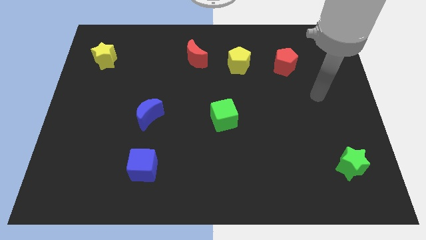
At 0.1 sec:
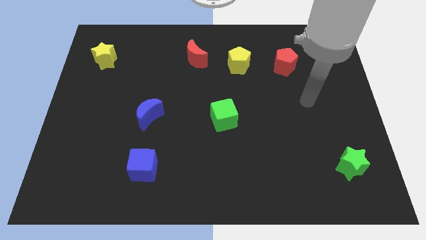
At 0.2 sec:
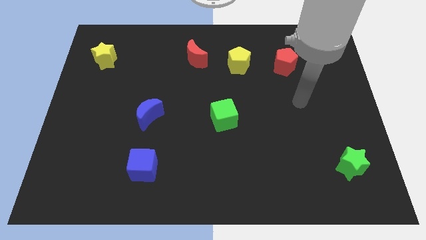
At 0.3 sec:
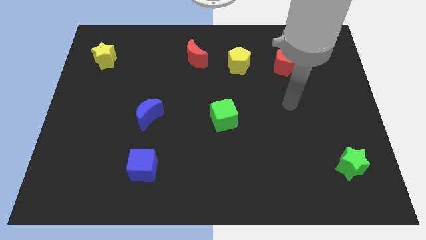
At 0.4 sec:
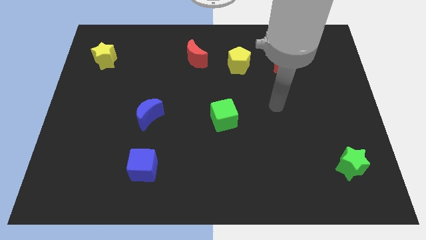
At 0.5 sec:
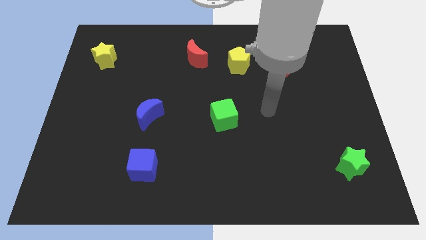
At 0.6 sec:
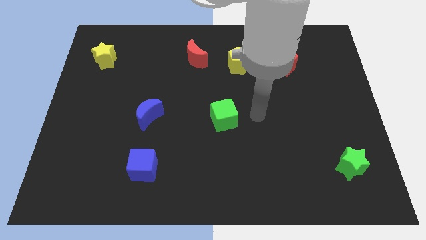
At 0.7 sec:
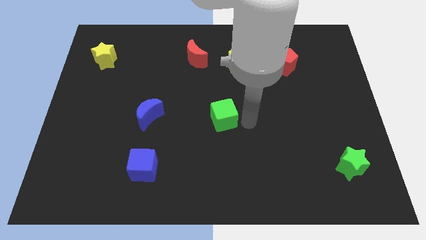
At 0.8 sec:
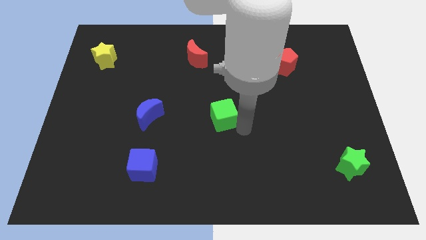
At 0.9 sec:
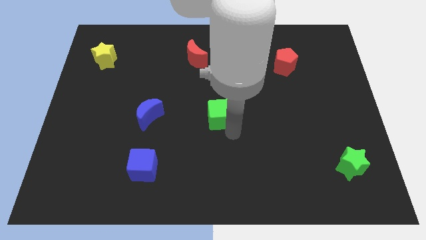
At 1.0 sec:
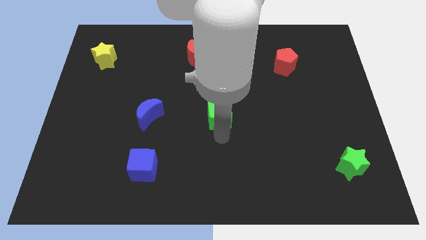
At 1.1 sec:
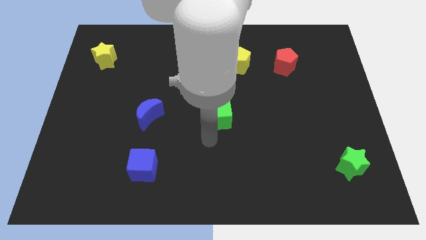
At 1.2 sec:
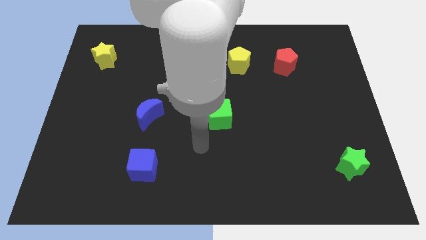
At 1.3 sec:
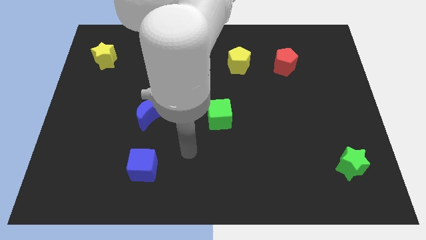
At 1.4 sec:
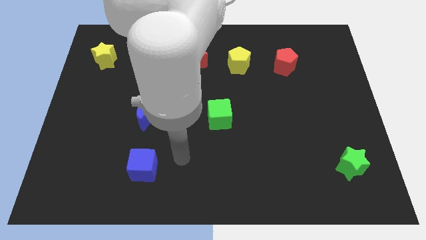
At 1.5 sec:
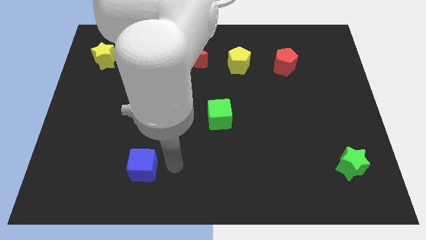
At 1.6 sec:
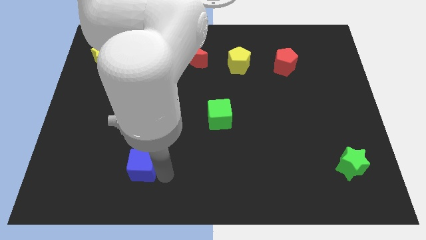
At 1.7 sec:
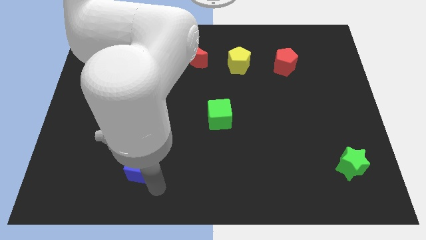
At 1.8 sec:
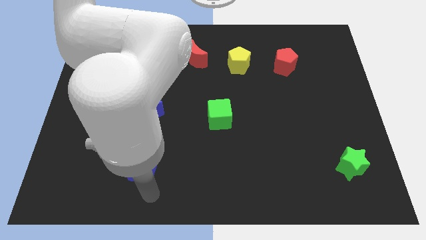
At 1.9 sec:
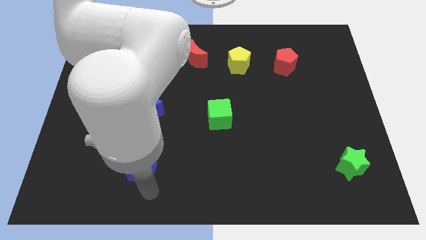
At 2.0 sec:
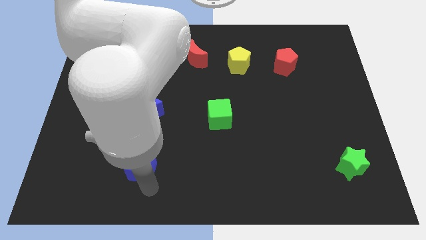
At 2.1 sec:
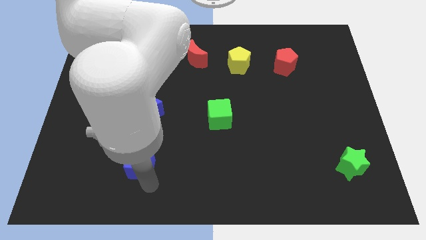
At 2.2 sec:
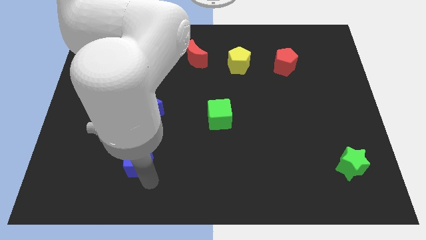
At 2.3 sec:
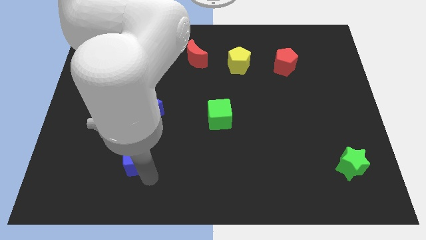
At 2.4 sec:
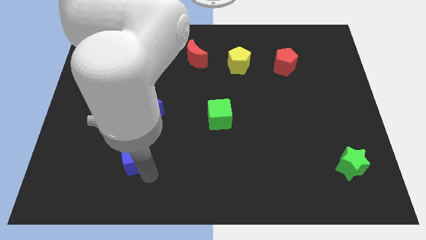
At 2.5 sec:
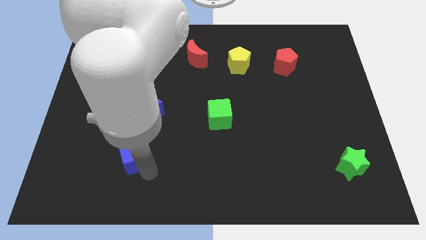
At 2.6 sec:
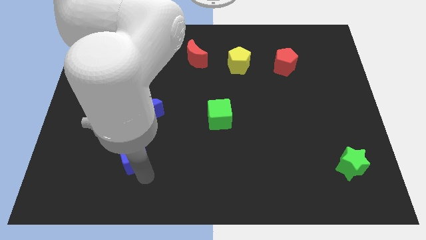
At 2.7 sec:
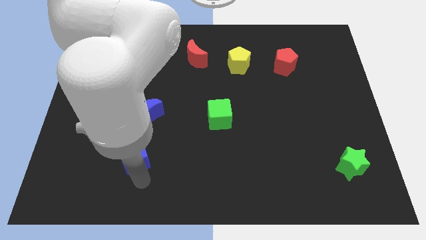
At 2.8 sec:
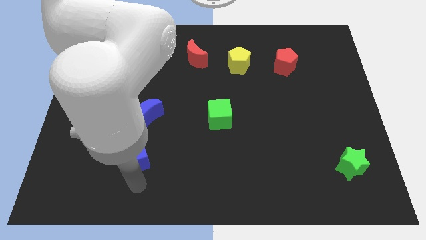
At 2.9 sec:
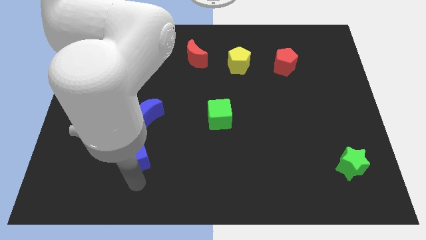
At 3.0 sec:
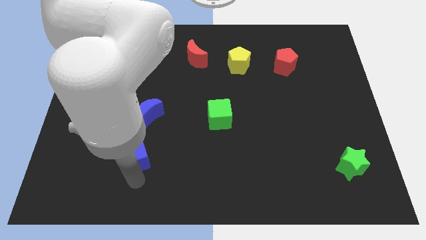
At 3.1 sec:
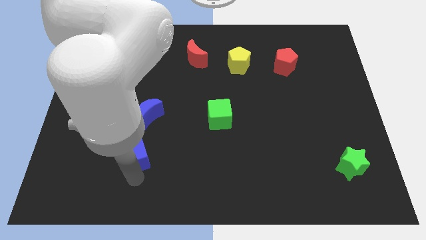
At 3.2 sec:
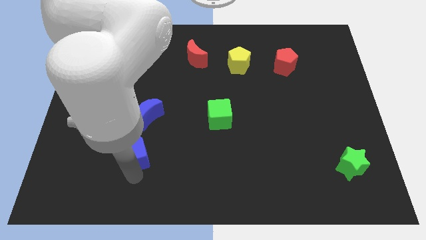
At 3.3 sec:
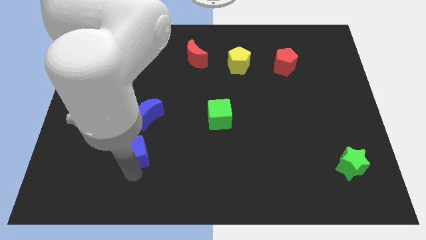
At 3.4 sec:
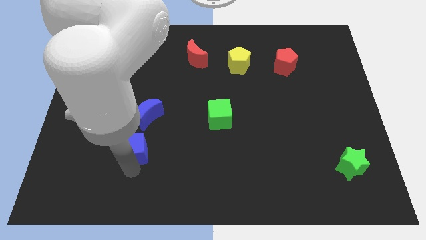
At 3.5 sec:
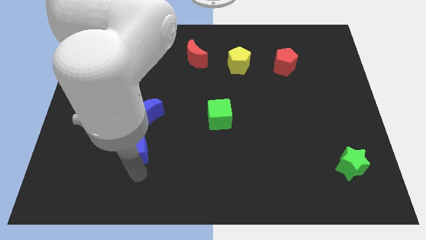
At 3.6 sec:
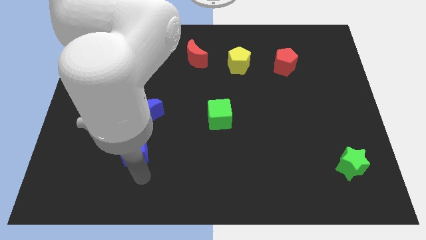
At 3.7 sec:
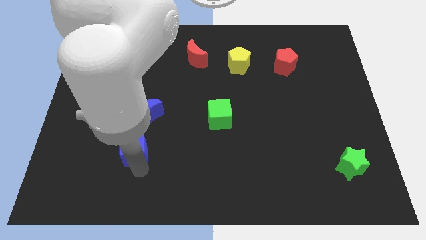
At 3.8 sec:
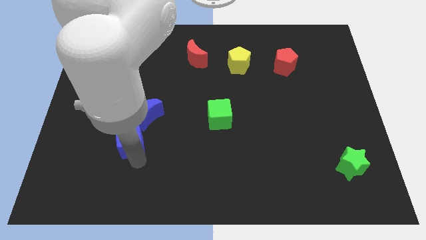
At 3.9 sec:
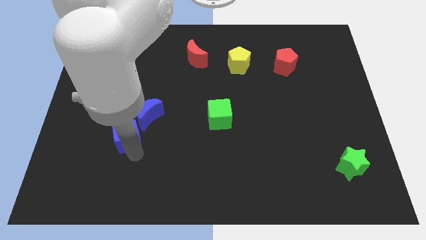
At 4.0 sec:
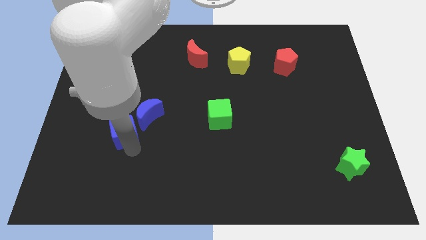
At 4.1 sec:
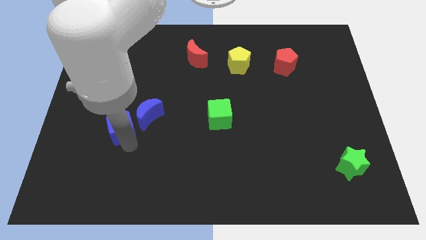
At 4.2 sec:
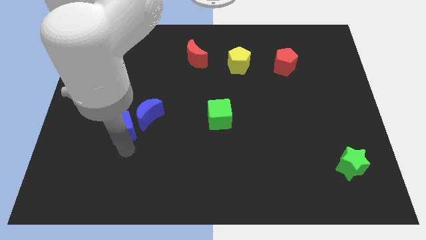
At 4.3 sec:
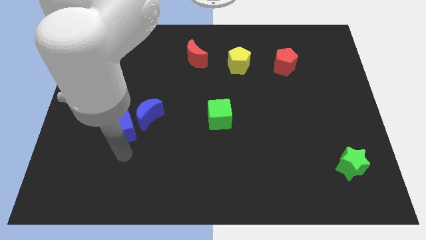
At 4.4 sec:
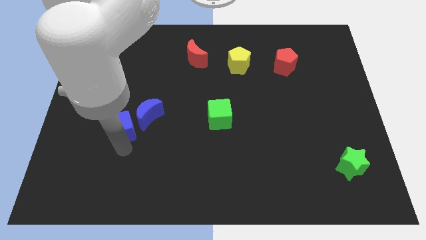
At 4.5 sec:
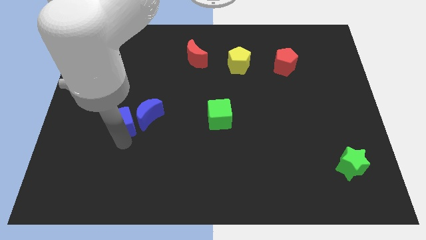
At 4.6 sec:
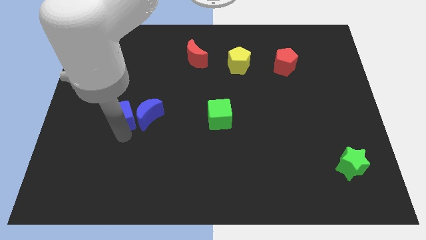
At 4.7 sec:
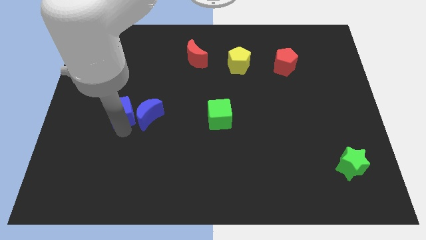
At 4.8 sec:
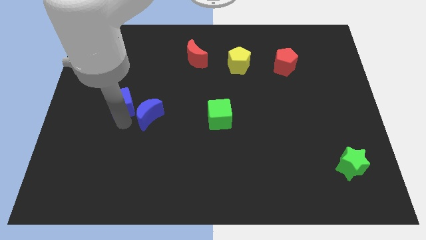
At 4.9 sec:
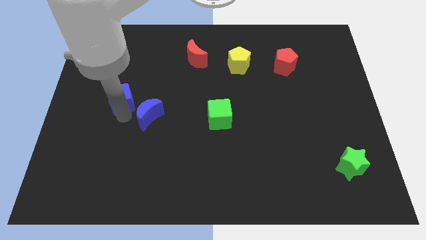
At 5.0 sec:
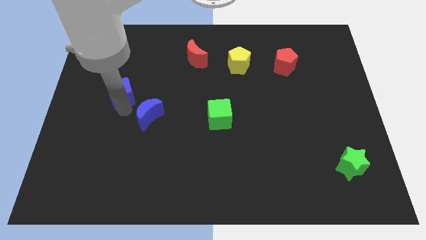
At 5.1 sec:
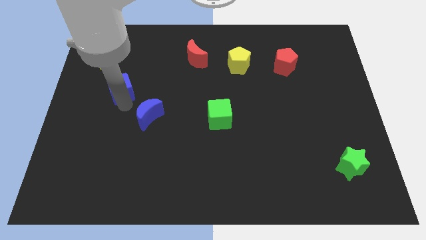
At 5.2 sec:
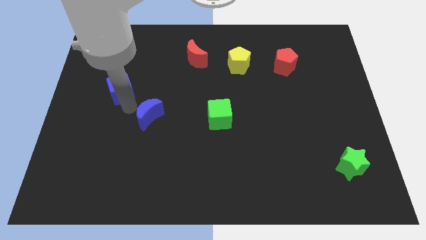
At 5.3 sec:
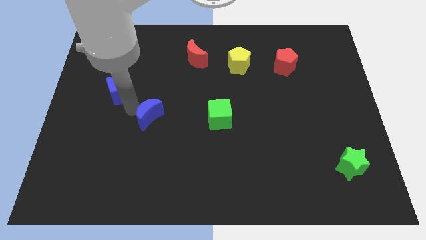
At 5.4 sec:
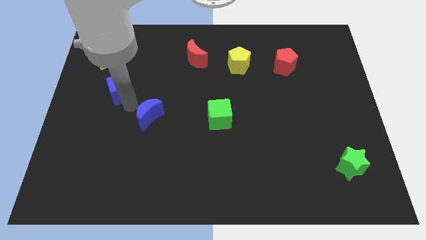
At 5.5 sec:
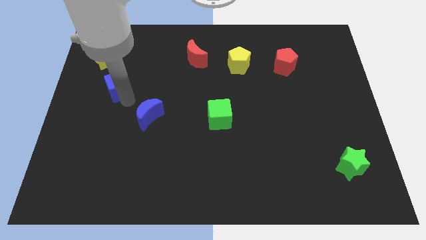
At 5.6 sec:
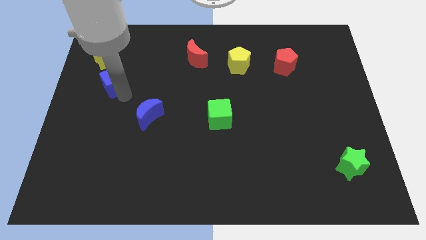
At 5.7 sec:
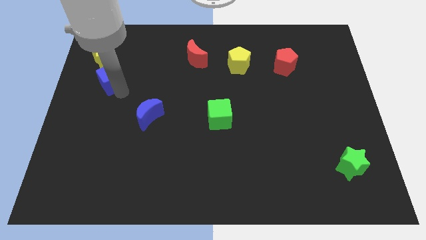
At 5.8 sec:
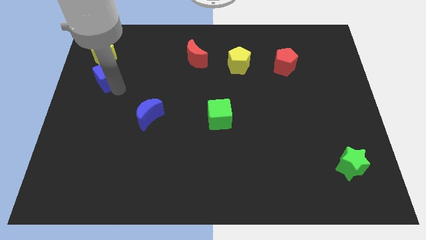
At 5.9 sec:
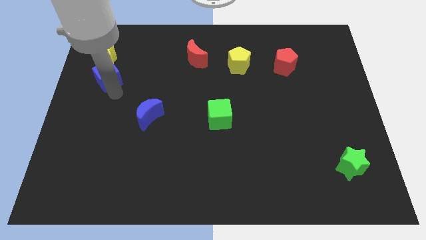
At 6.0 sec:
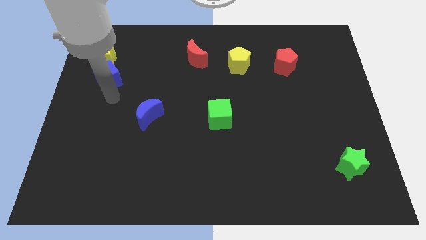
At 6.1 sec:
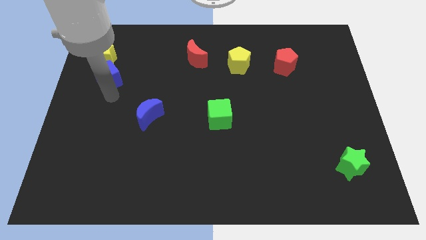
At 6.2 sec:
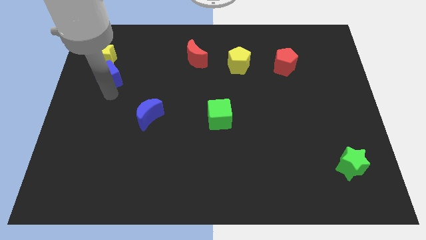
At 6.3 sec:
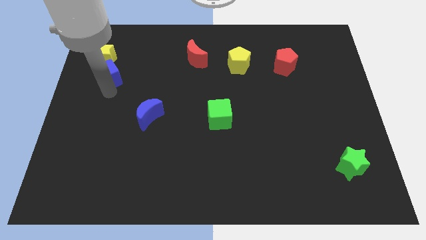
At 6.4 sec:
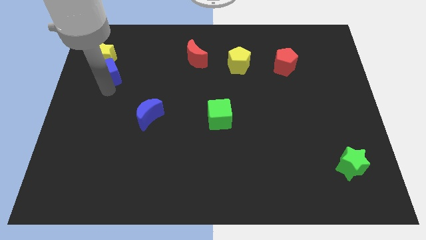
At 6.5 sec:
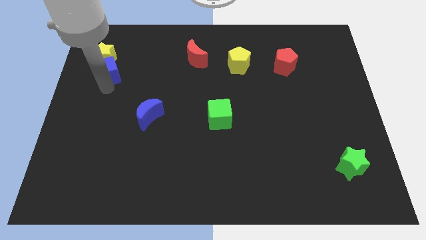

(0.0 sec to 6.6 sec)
slide the blue cube to the yellow star

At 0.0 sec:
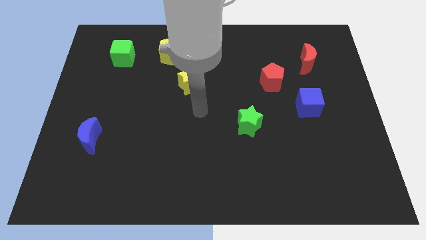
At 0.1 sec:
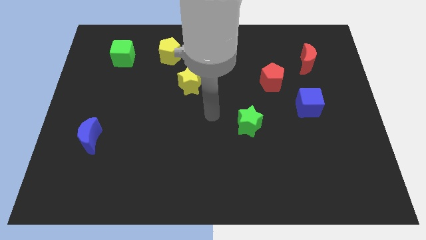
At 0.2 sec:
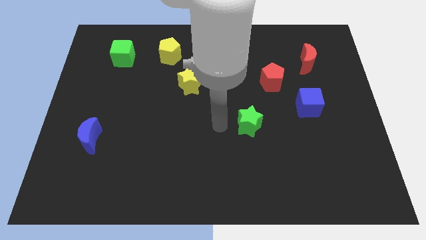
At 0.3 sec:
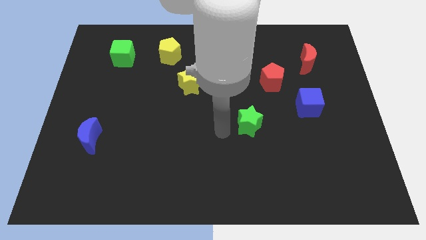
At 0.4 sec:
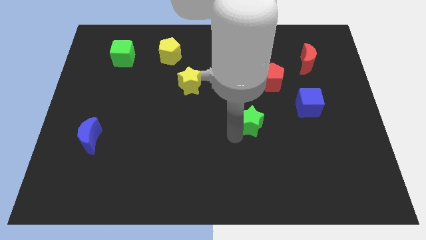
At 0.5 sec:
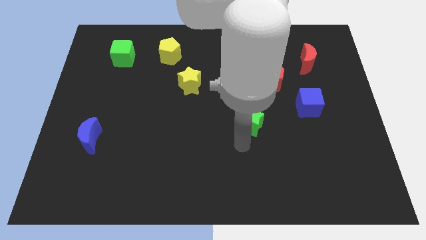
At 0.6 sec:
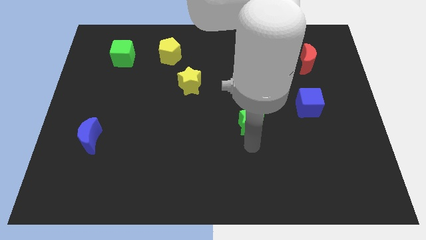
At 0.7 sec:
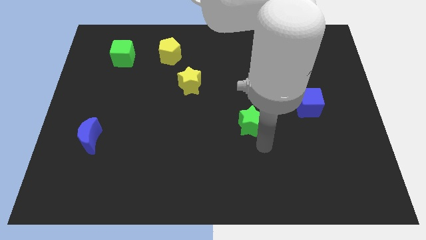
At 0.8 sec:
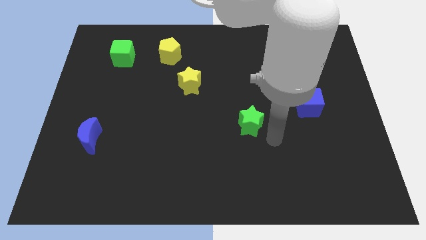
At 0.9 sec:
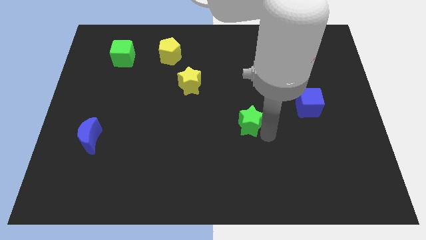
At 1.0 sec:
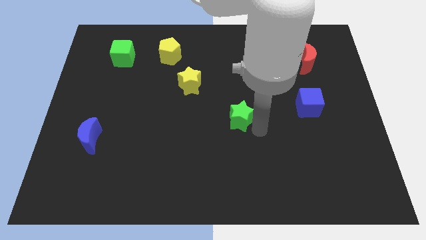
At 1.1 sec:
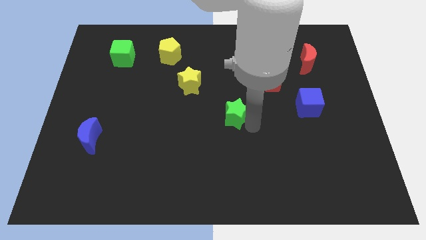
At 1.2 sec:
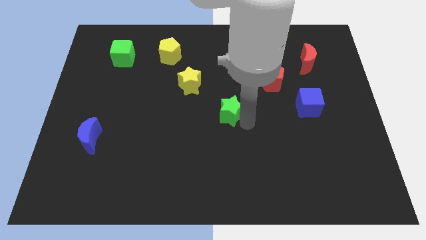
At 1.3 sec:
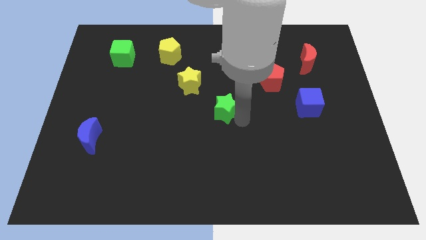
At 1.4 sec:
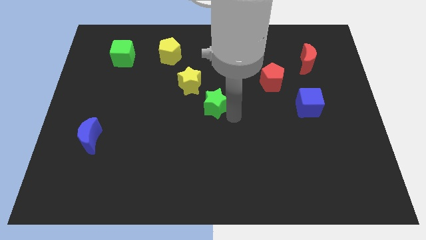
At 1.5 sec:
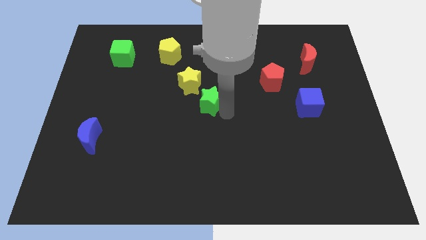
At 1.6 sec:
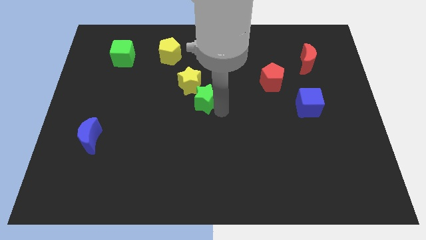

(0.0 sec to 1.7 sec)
move the green star to the yellow star
